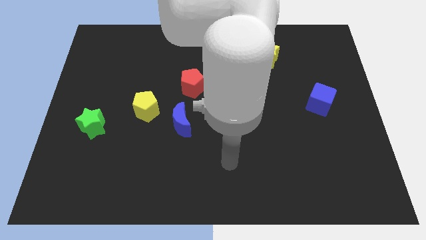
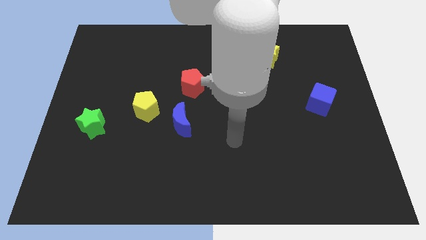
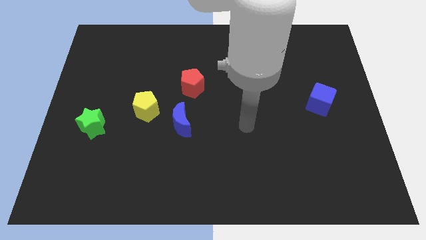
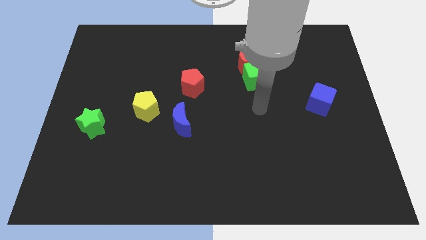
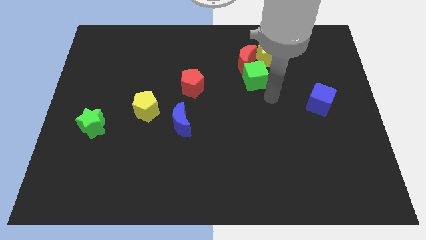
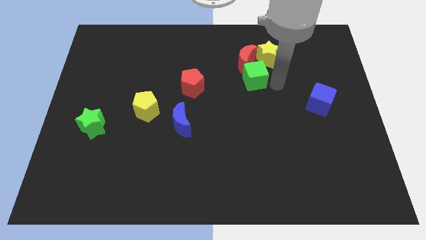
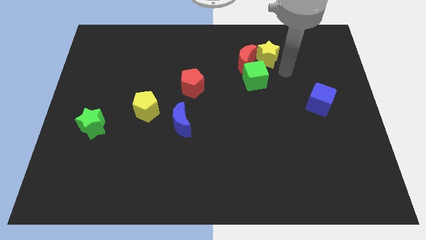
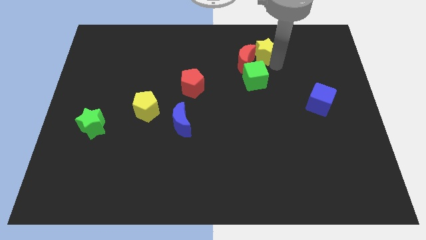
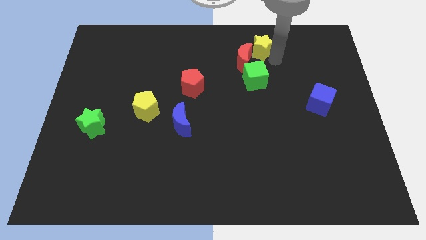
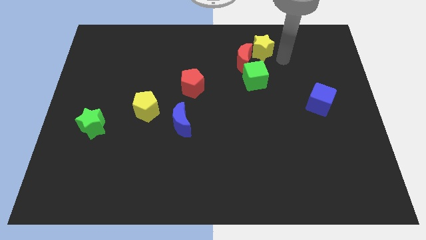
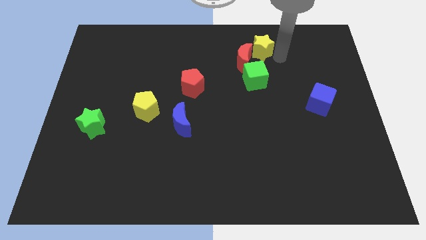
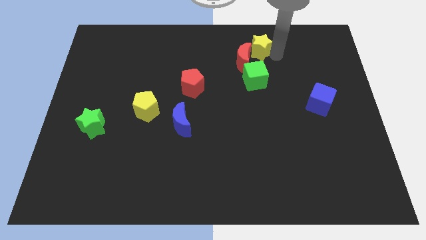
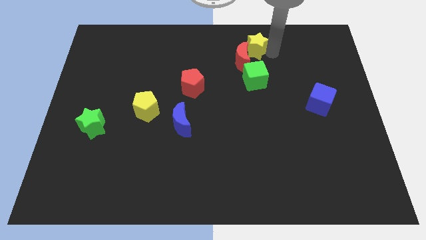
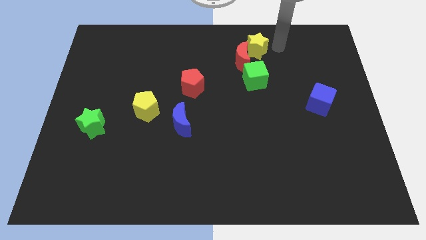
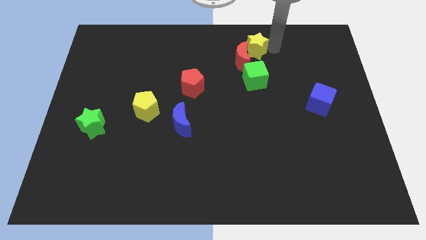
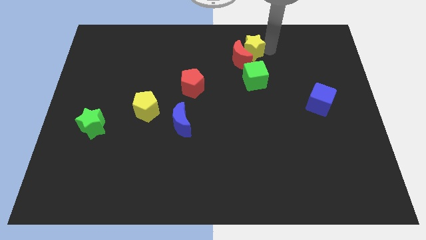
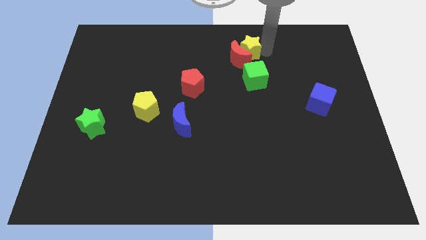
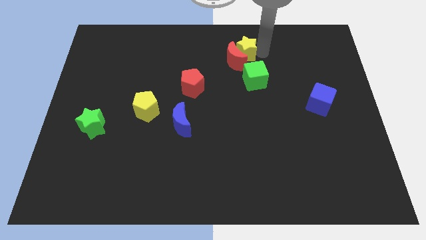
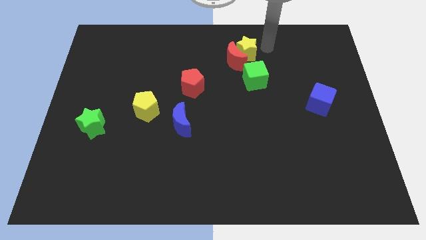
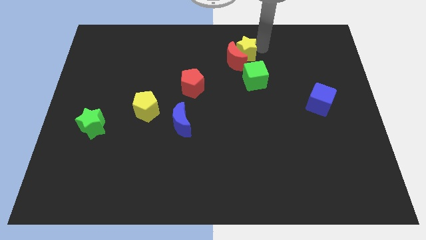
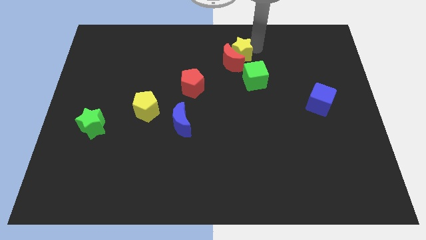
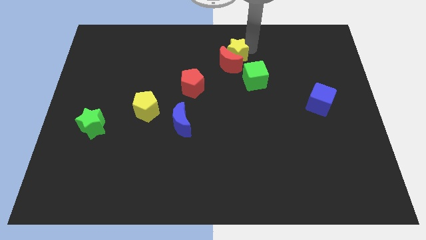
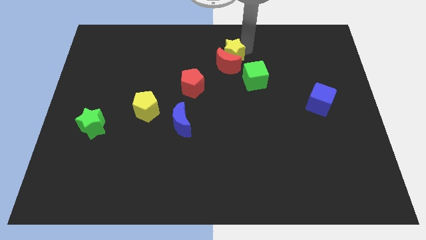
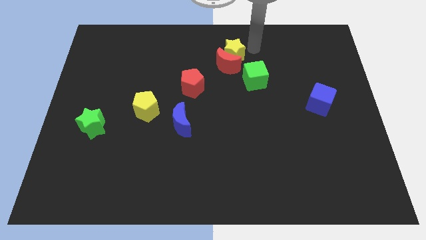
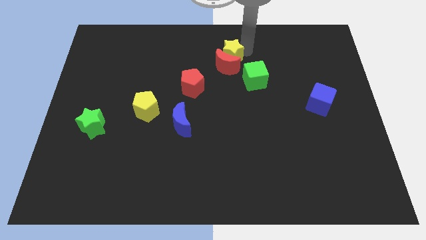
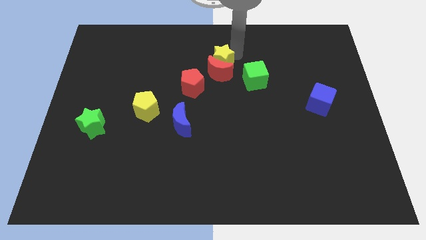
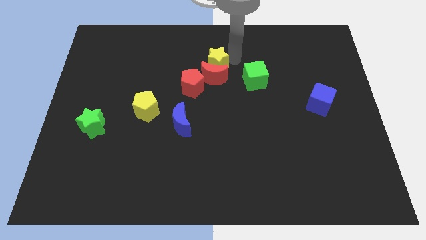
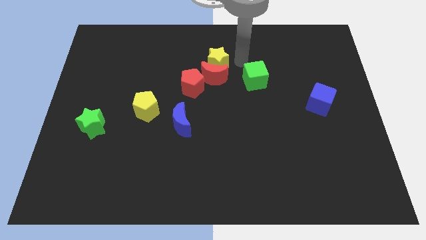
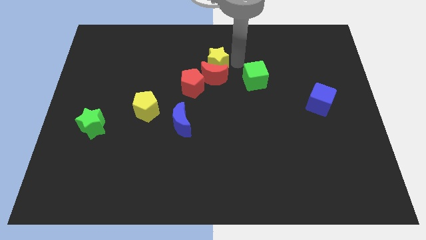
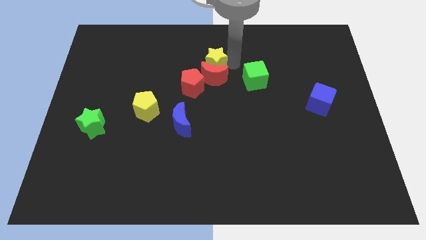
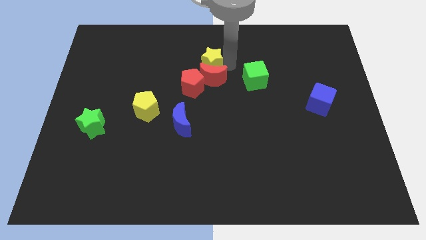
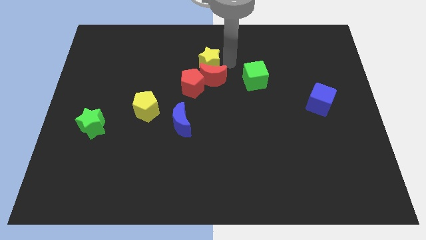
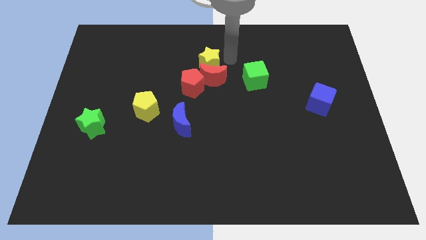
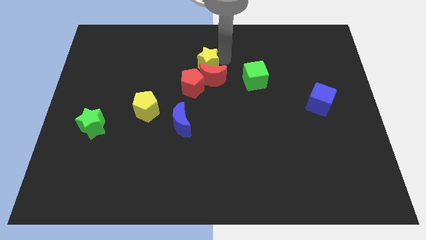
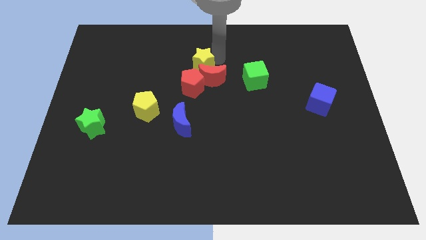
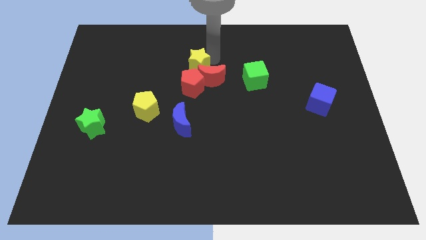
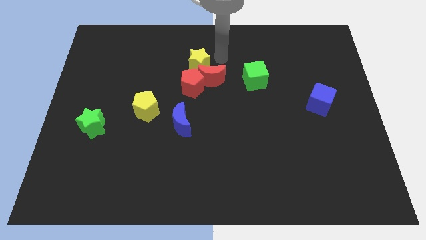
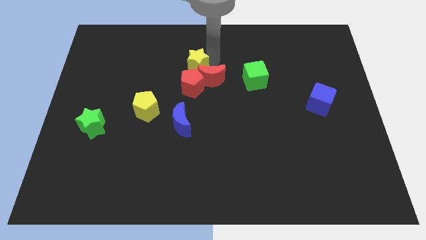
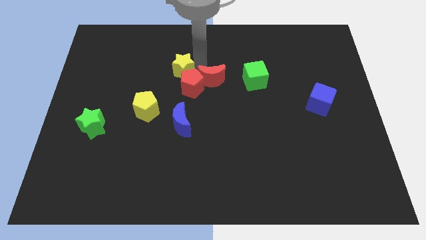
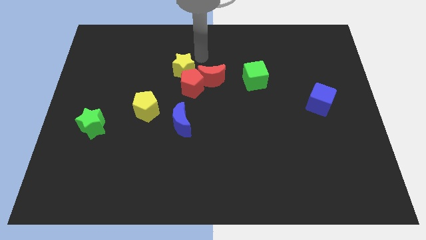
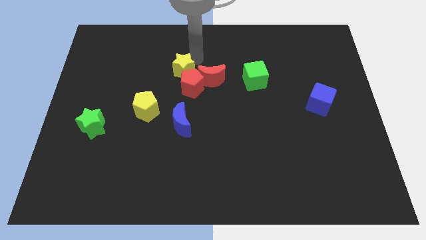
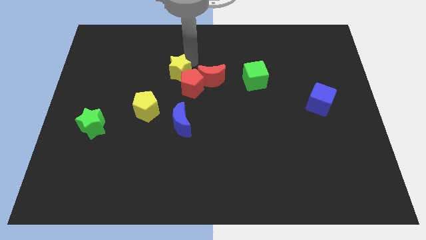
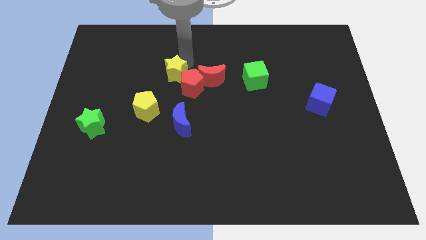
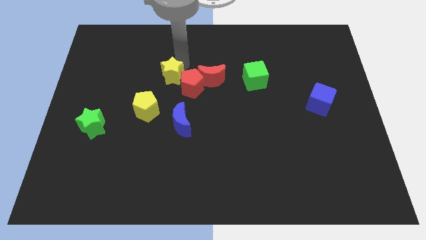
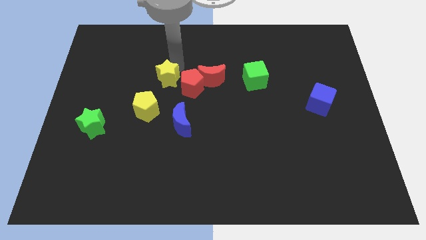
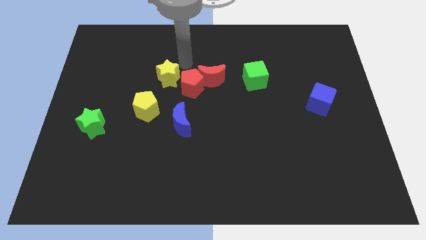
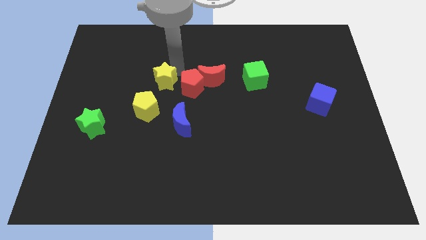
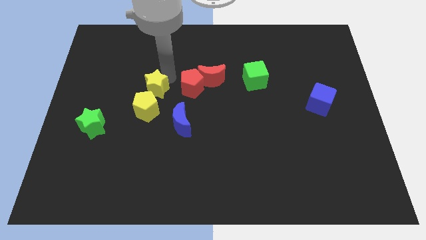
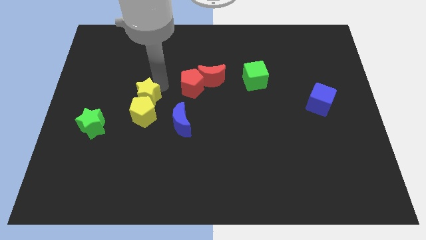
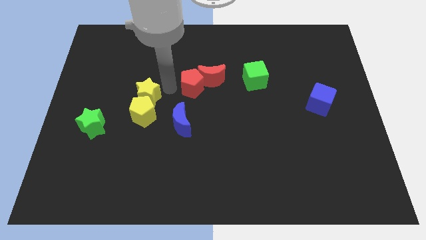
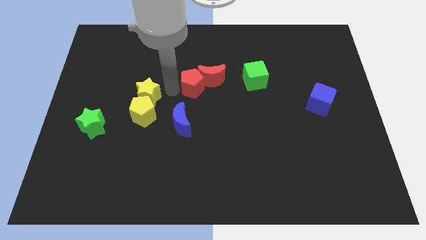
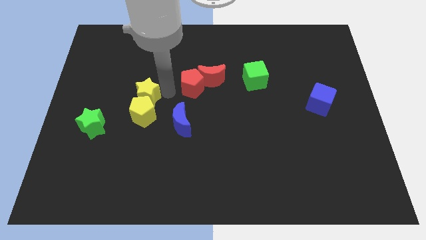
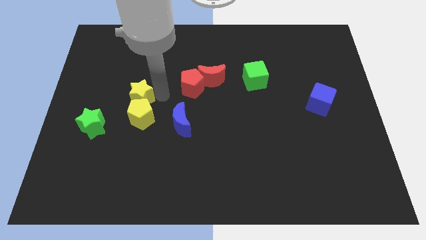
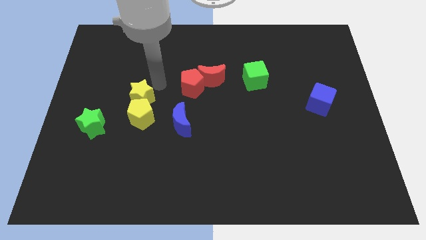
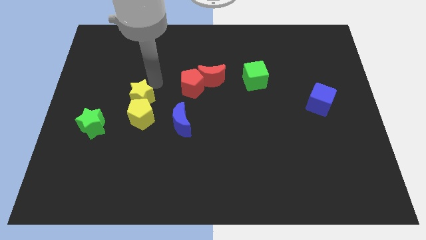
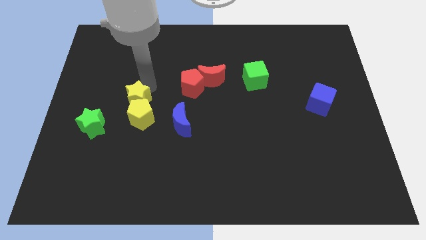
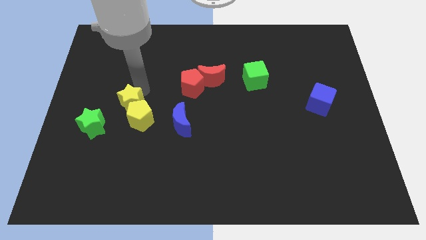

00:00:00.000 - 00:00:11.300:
slide the yellow star to the left of the yellow pentagon

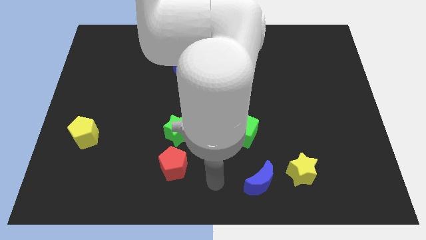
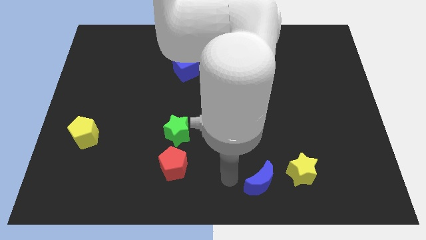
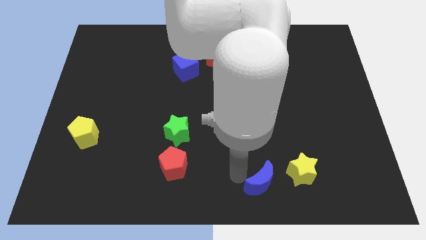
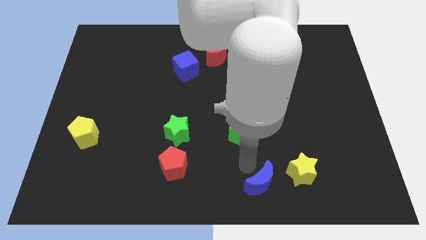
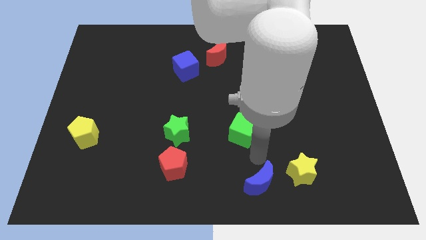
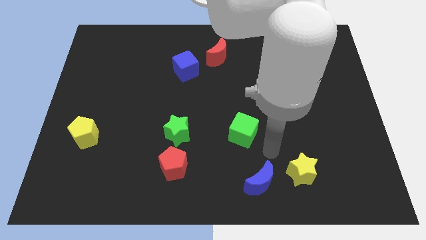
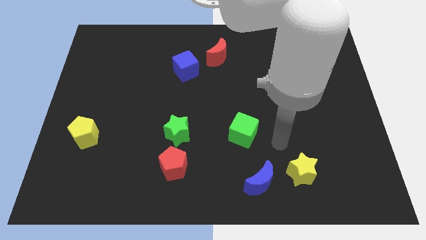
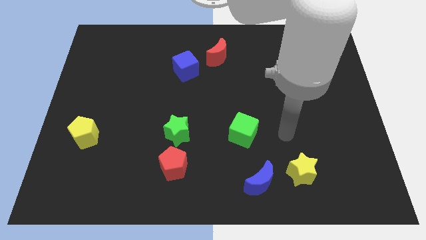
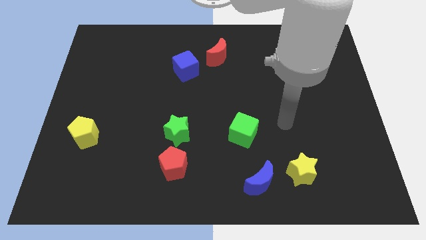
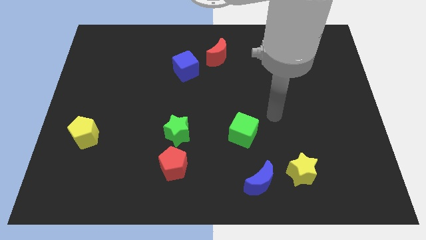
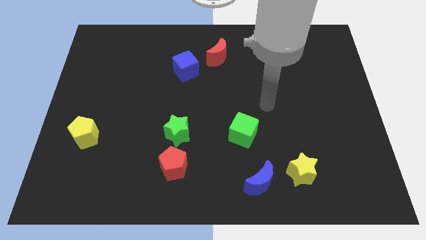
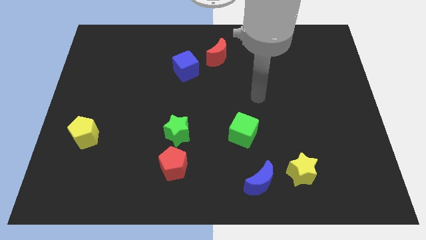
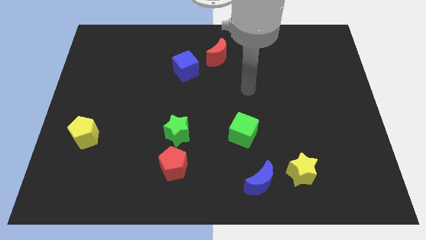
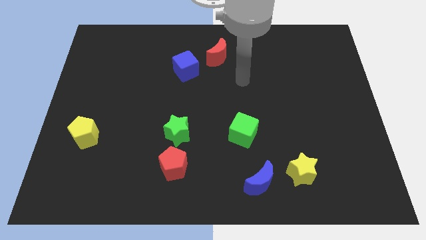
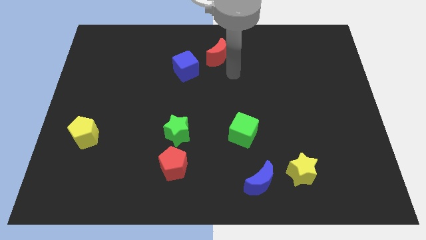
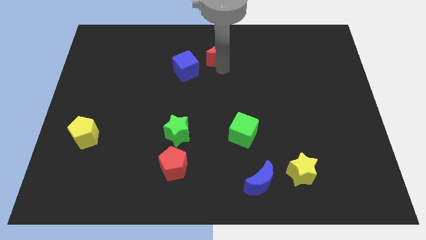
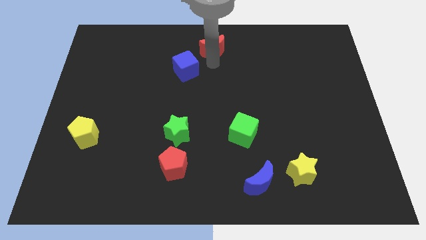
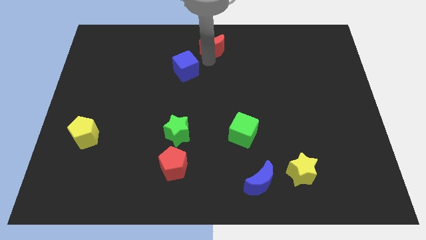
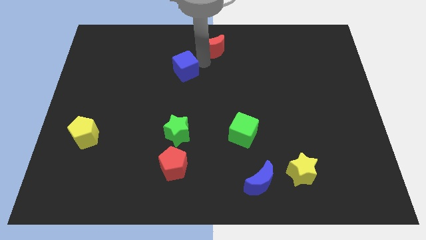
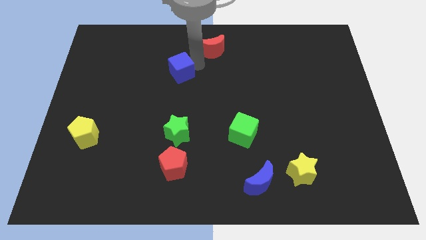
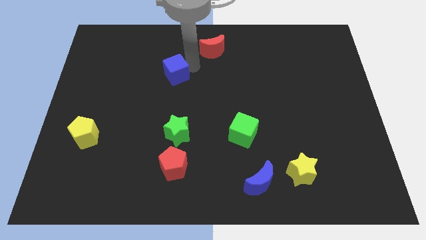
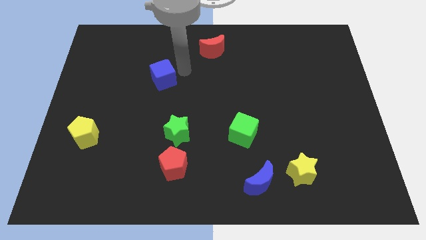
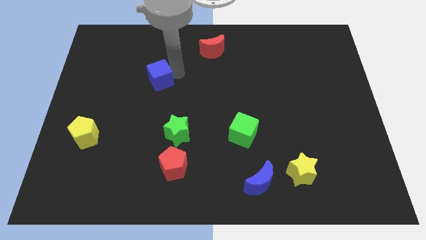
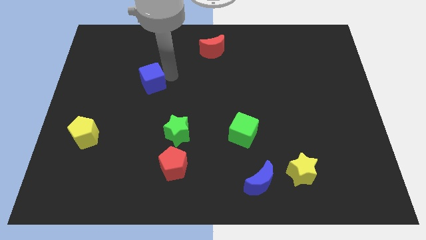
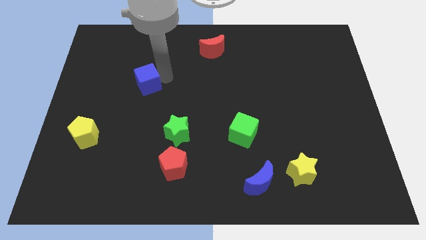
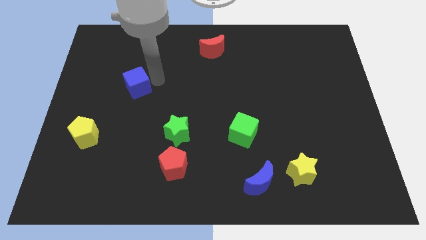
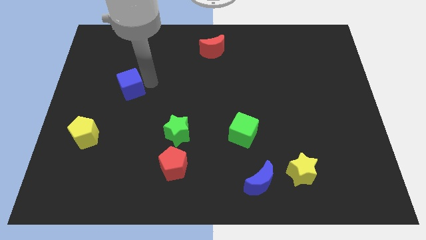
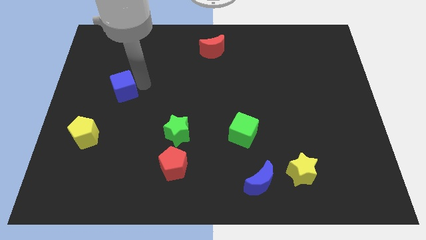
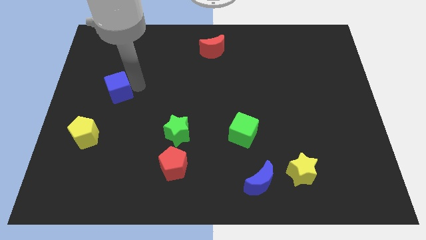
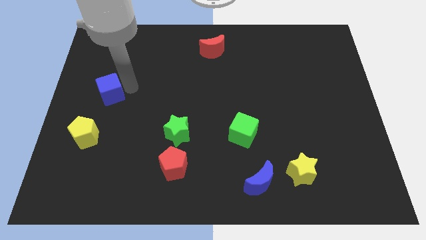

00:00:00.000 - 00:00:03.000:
move the blue cube above the yellow pentagon
